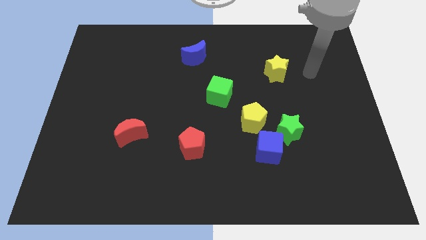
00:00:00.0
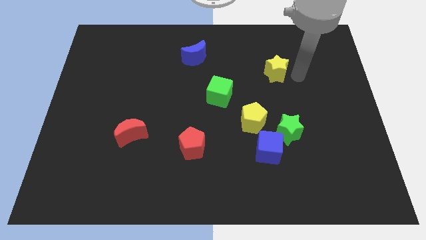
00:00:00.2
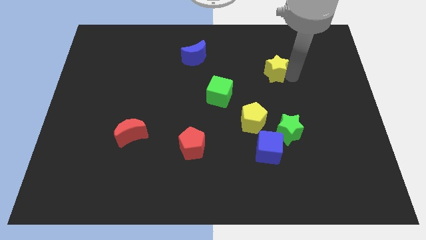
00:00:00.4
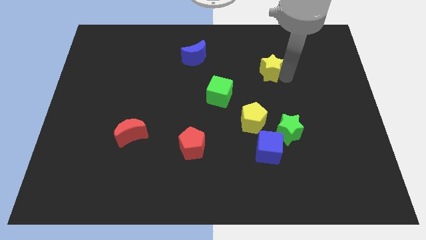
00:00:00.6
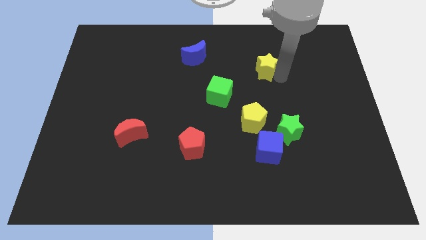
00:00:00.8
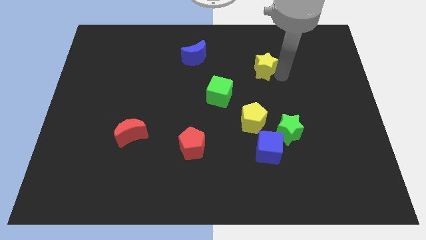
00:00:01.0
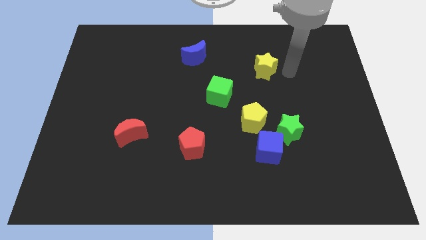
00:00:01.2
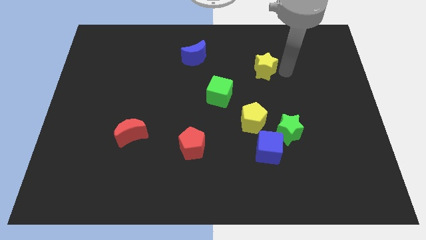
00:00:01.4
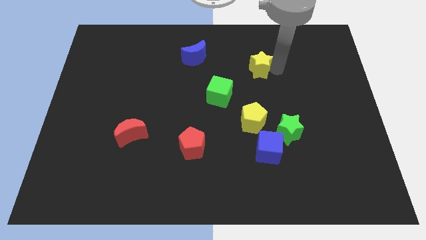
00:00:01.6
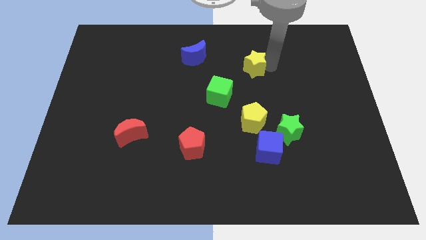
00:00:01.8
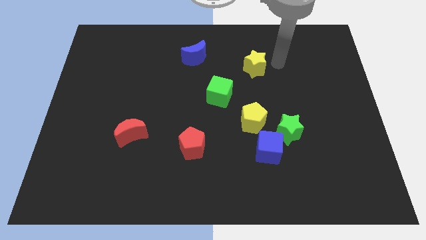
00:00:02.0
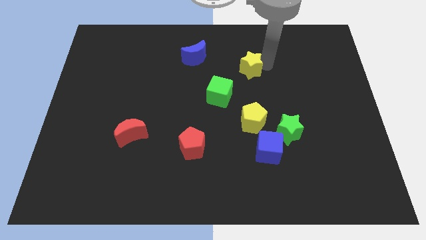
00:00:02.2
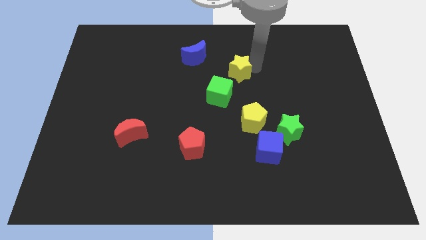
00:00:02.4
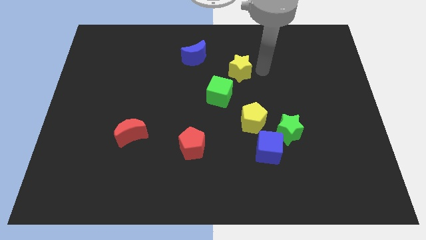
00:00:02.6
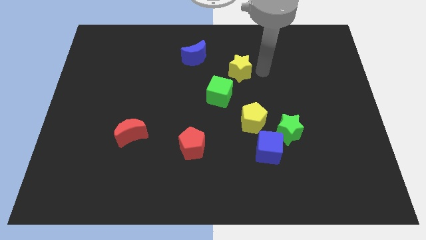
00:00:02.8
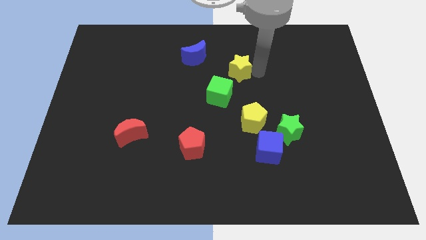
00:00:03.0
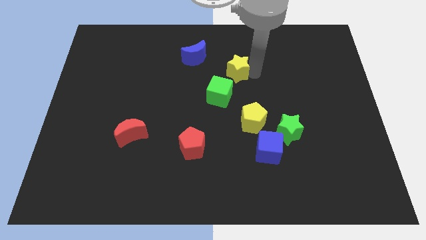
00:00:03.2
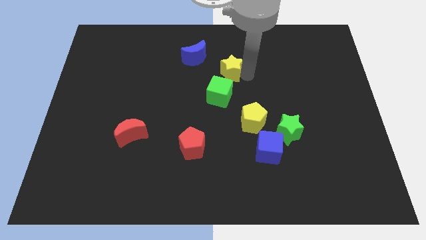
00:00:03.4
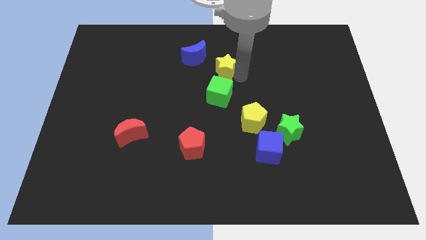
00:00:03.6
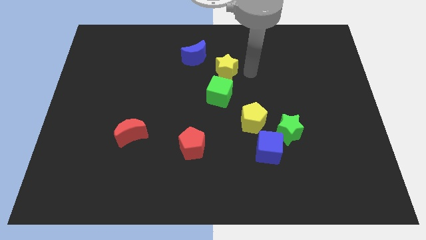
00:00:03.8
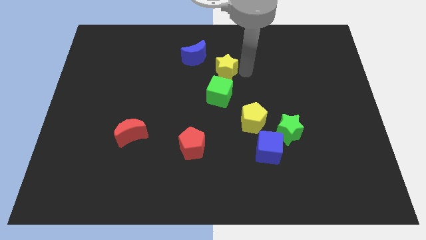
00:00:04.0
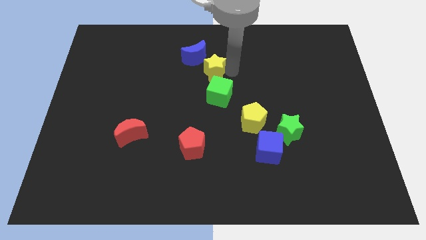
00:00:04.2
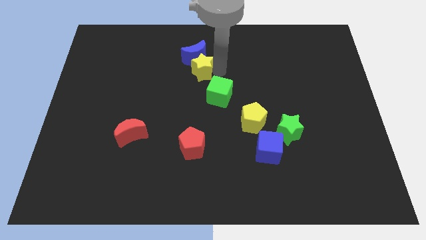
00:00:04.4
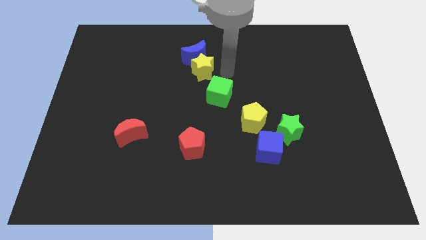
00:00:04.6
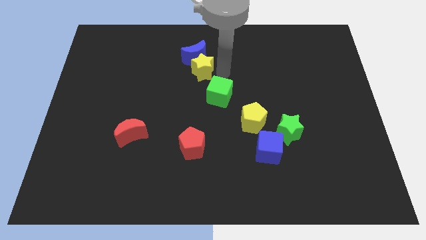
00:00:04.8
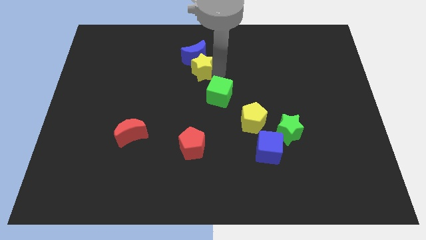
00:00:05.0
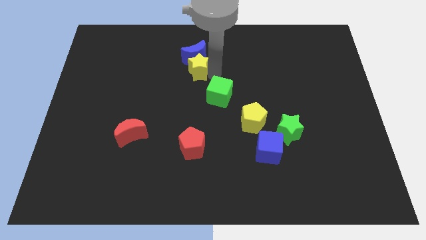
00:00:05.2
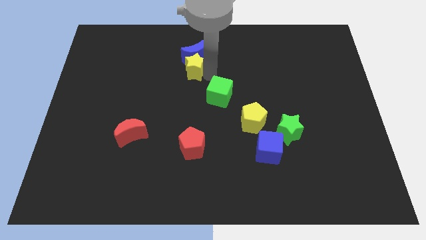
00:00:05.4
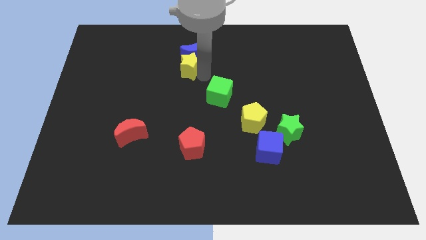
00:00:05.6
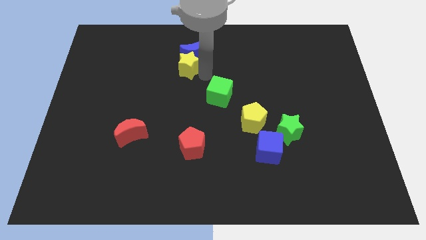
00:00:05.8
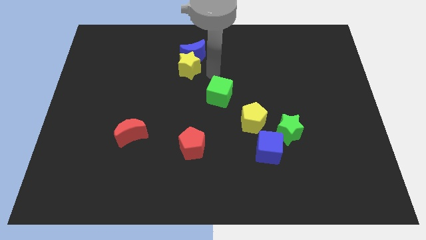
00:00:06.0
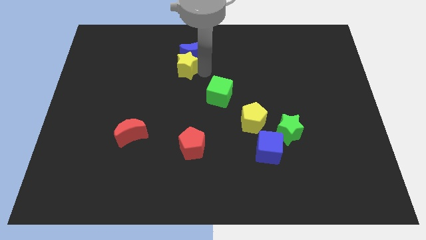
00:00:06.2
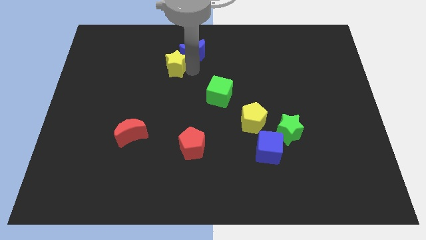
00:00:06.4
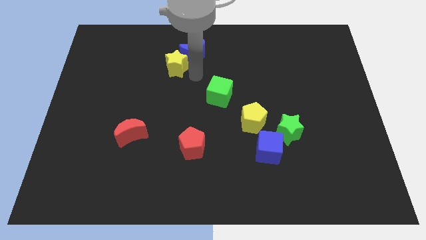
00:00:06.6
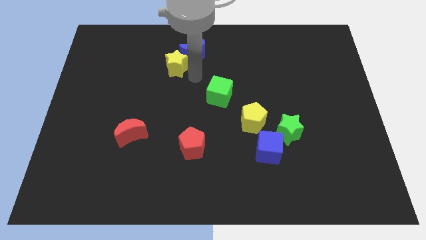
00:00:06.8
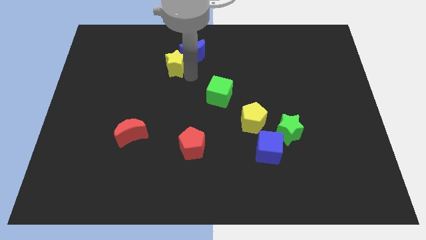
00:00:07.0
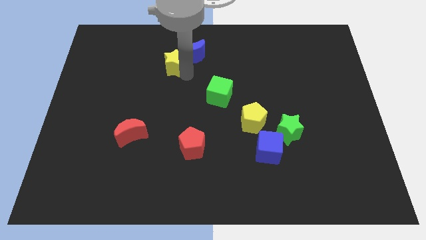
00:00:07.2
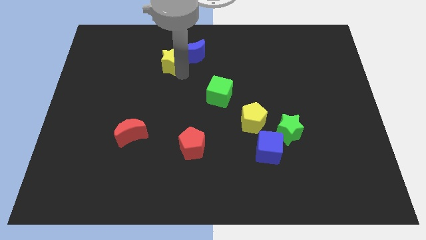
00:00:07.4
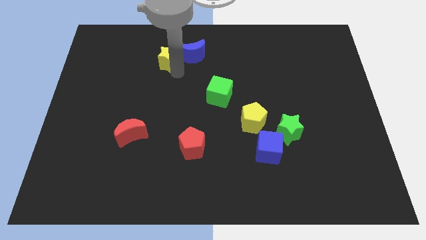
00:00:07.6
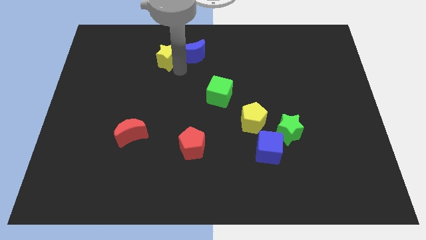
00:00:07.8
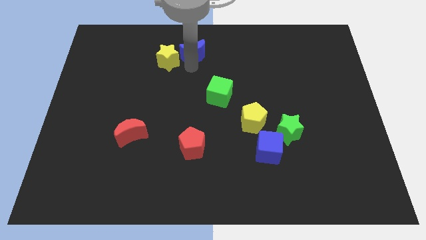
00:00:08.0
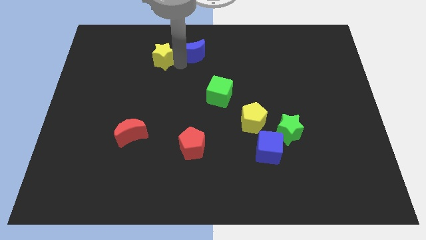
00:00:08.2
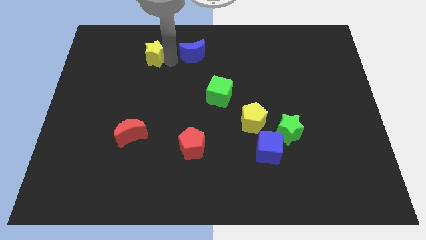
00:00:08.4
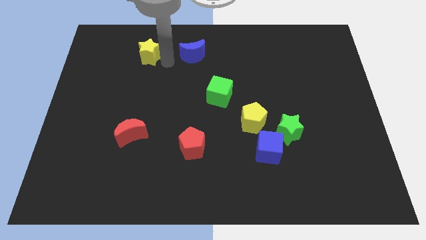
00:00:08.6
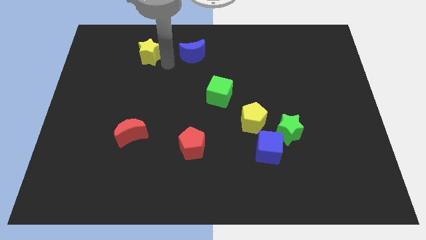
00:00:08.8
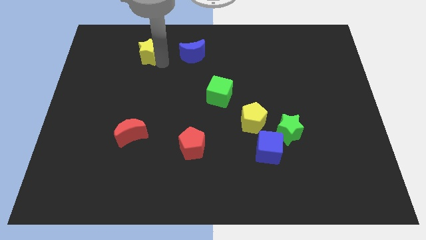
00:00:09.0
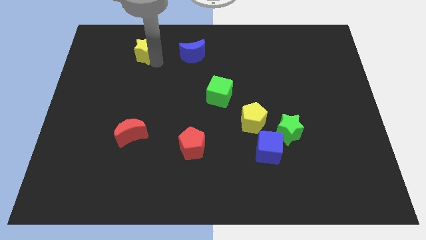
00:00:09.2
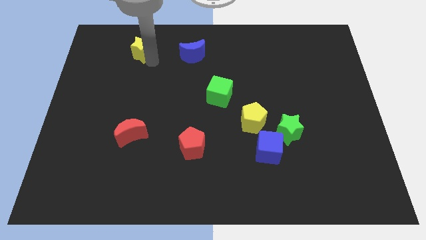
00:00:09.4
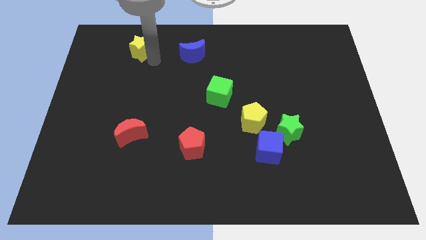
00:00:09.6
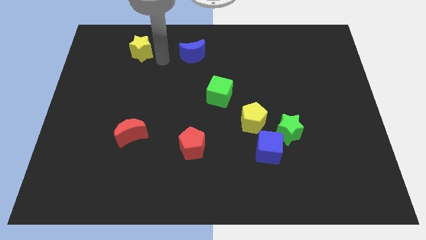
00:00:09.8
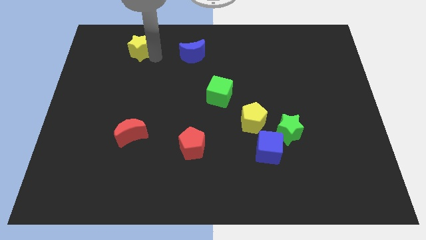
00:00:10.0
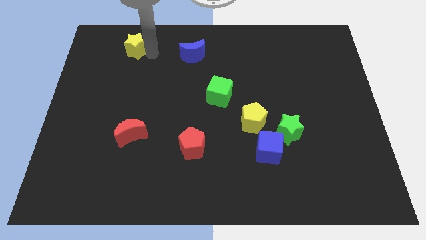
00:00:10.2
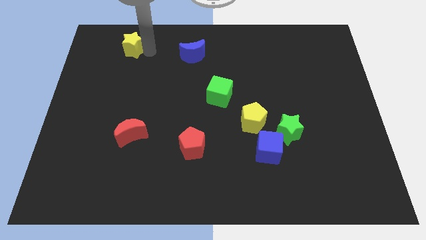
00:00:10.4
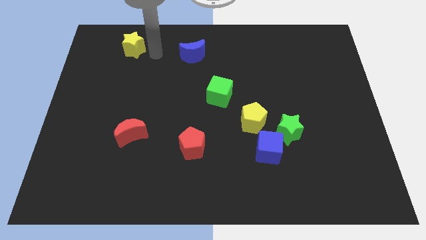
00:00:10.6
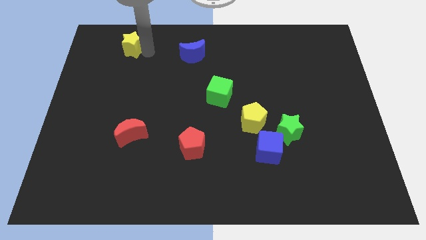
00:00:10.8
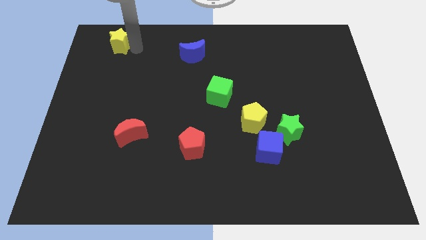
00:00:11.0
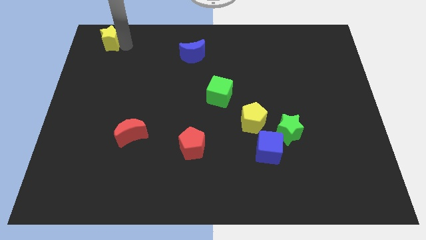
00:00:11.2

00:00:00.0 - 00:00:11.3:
move the yellow star to the top left corner
